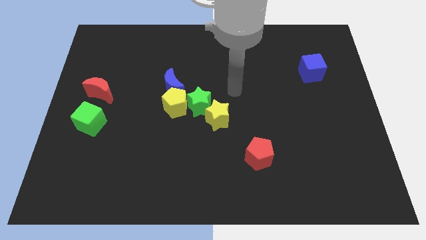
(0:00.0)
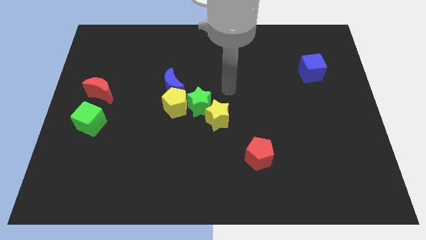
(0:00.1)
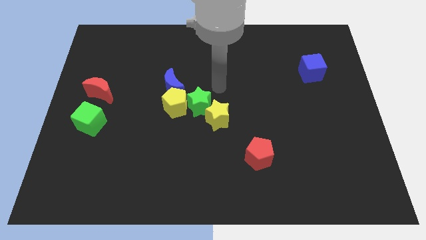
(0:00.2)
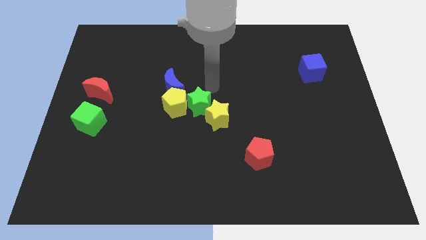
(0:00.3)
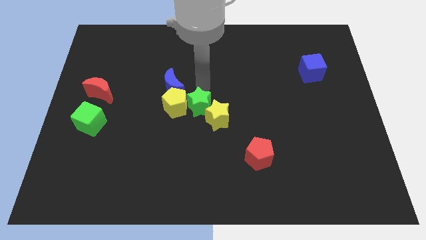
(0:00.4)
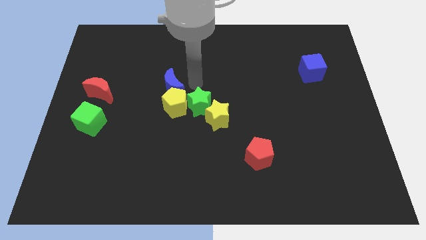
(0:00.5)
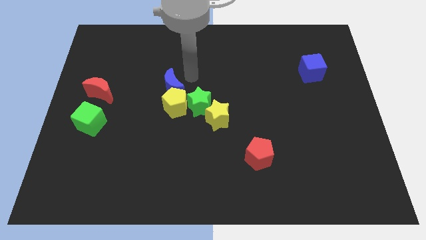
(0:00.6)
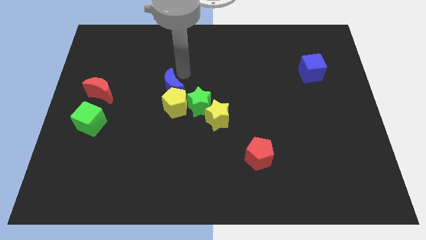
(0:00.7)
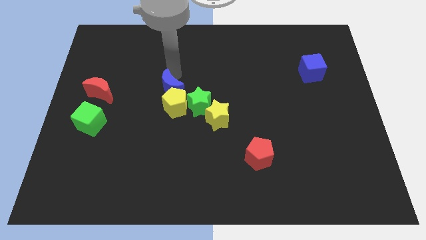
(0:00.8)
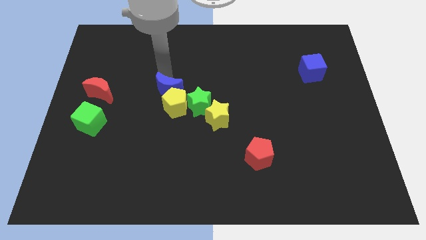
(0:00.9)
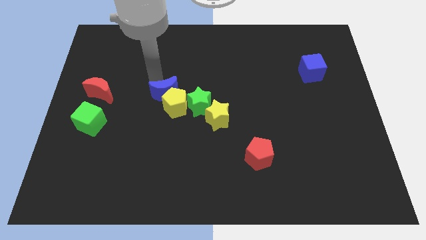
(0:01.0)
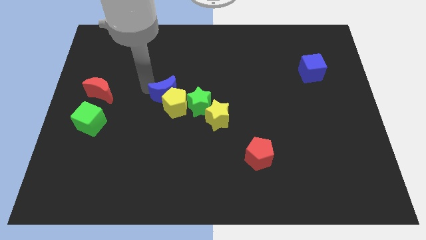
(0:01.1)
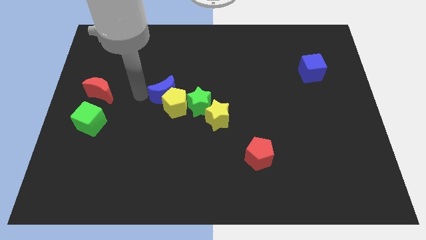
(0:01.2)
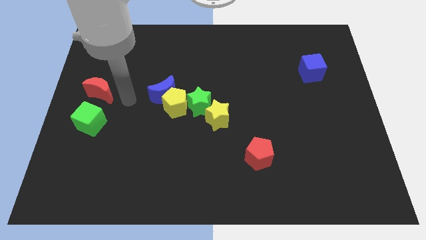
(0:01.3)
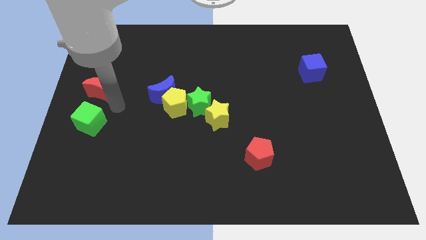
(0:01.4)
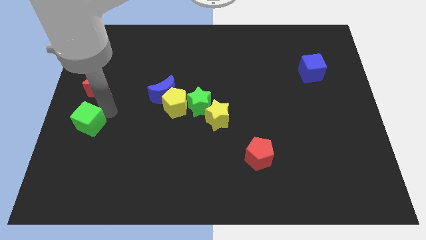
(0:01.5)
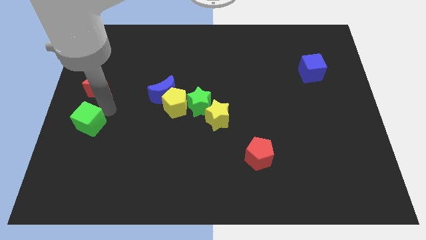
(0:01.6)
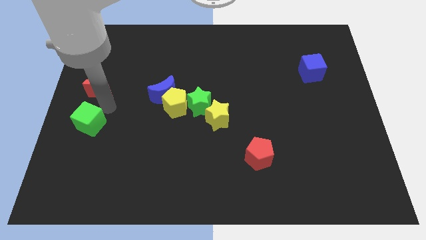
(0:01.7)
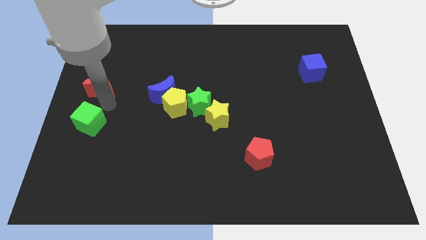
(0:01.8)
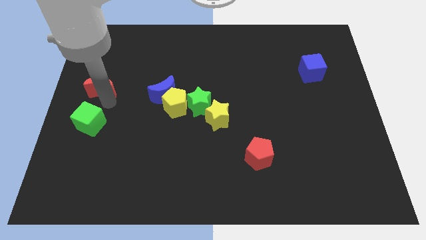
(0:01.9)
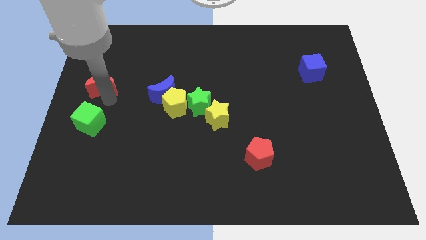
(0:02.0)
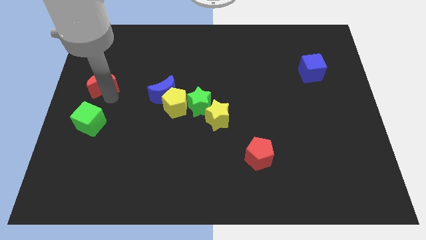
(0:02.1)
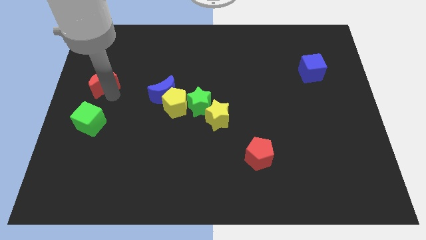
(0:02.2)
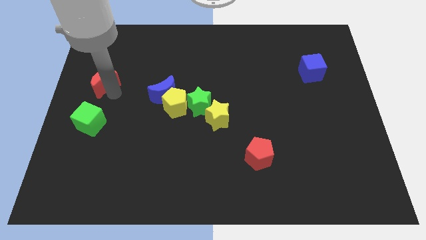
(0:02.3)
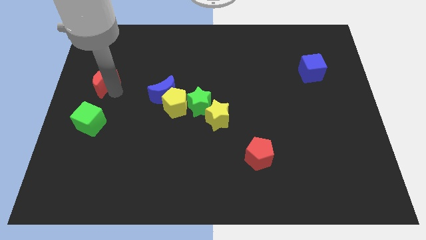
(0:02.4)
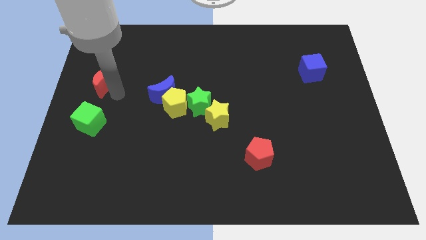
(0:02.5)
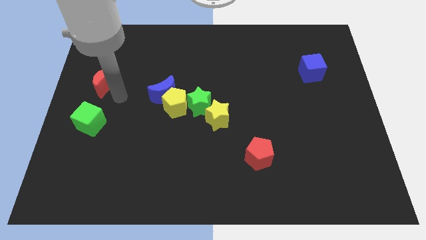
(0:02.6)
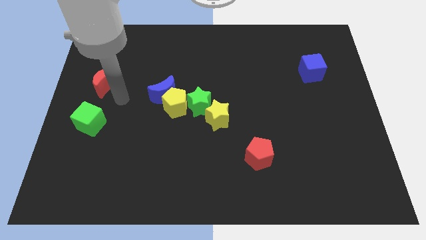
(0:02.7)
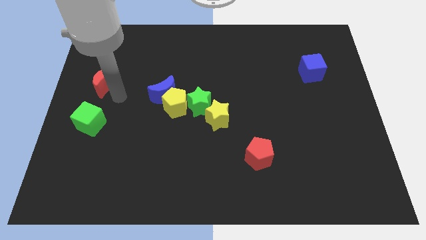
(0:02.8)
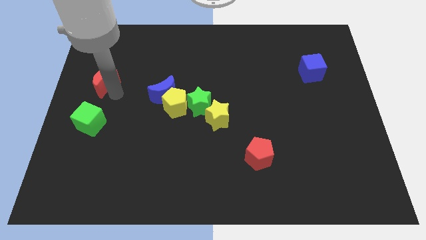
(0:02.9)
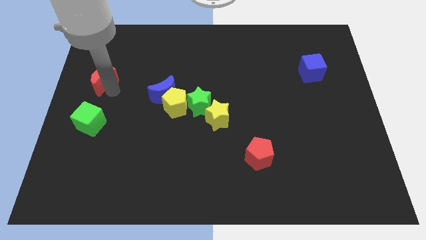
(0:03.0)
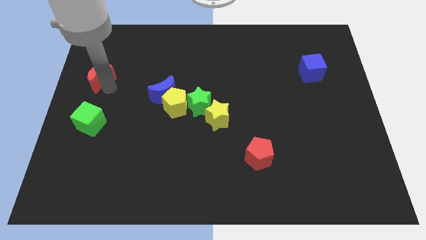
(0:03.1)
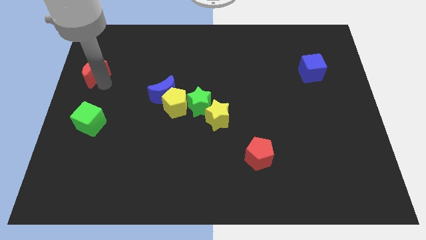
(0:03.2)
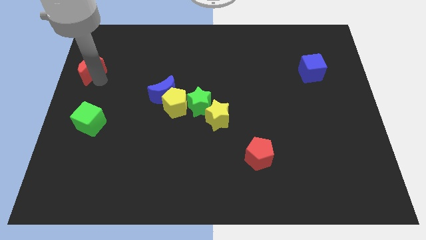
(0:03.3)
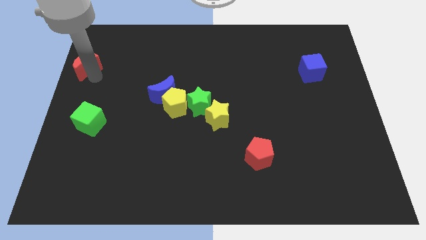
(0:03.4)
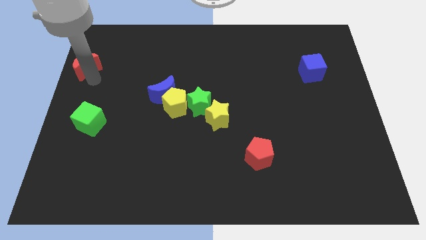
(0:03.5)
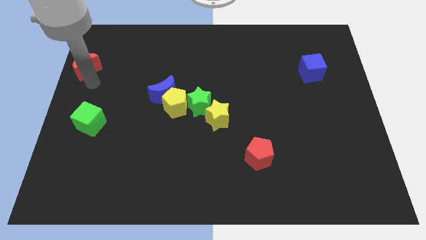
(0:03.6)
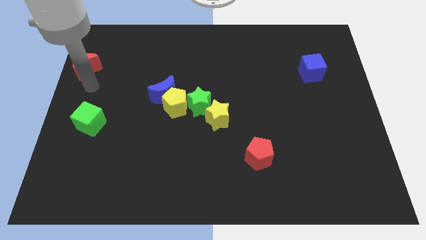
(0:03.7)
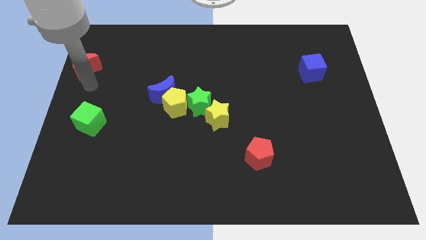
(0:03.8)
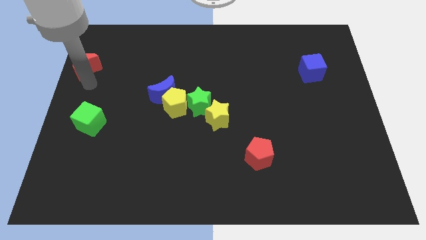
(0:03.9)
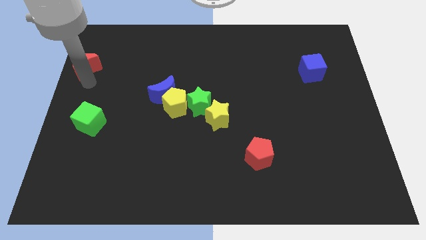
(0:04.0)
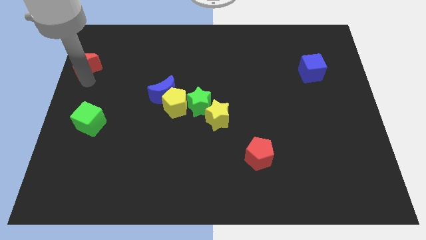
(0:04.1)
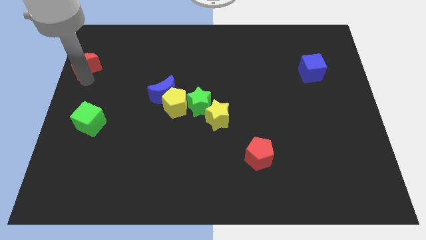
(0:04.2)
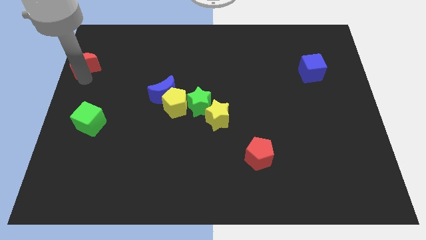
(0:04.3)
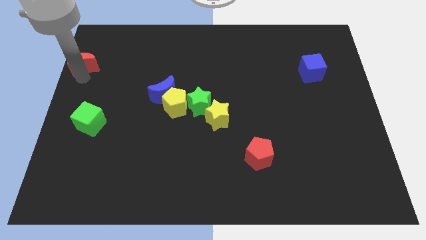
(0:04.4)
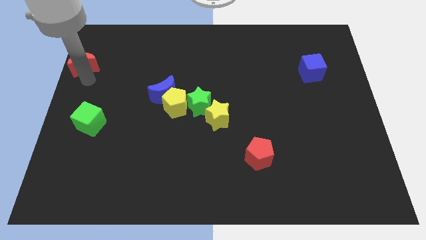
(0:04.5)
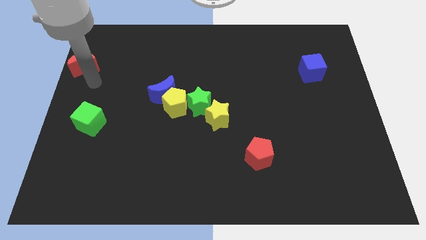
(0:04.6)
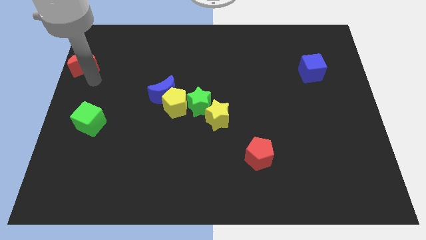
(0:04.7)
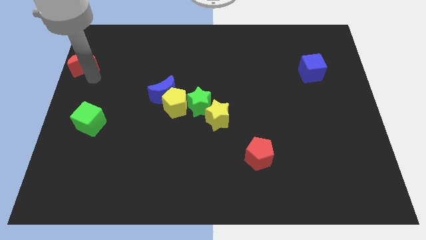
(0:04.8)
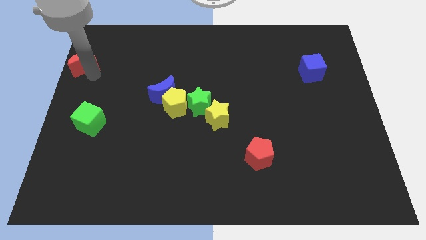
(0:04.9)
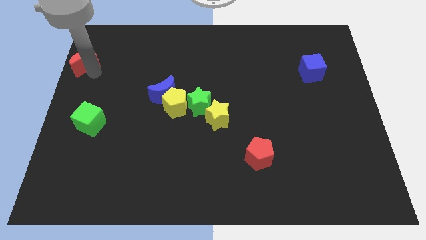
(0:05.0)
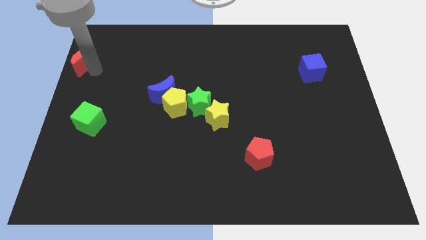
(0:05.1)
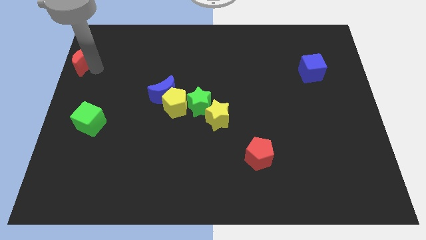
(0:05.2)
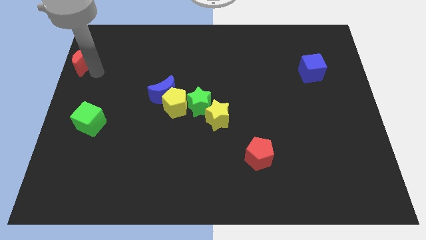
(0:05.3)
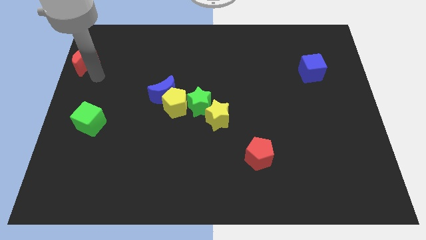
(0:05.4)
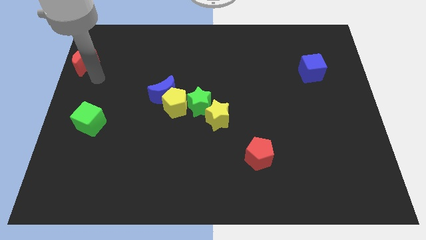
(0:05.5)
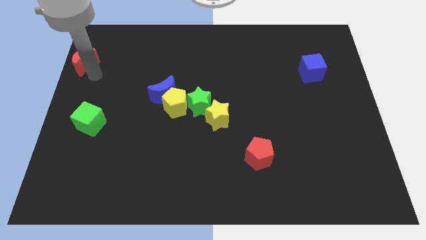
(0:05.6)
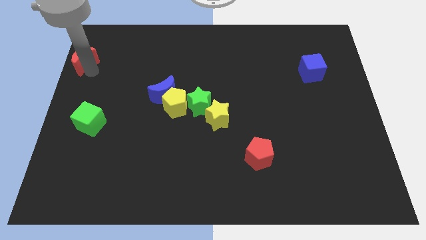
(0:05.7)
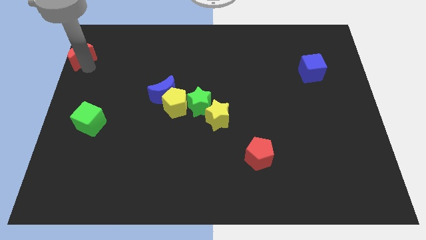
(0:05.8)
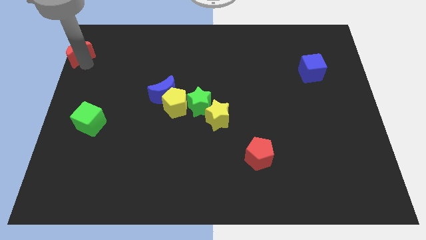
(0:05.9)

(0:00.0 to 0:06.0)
slide the red moon to the upper left corner
